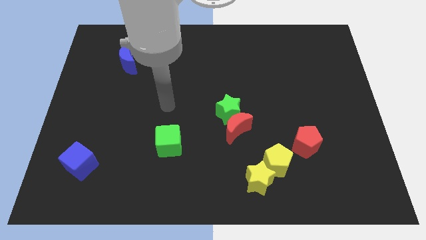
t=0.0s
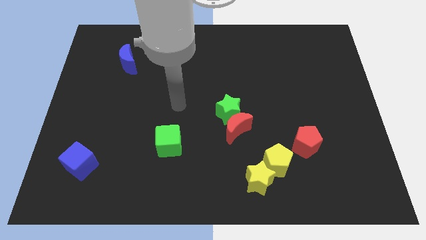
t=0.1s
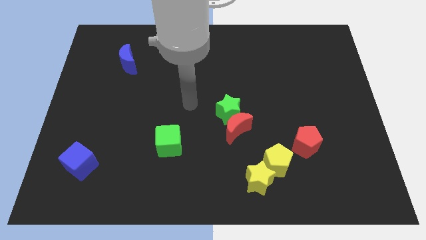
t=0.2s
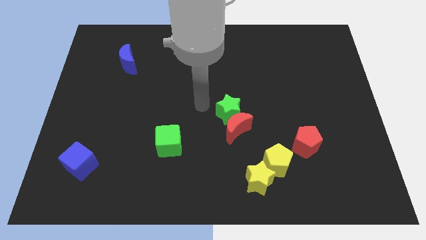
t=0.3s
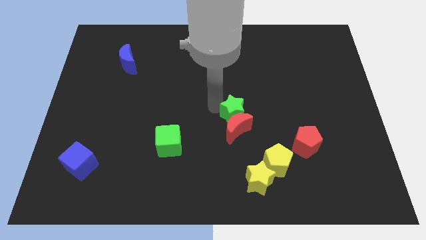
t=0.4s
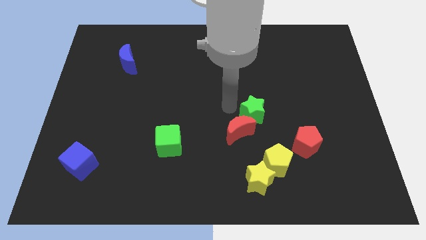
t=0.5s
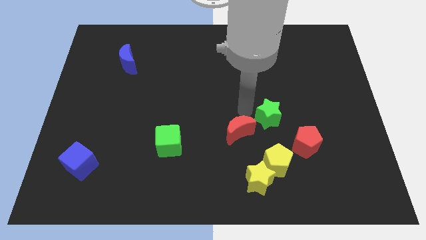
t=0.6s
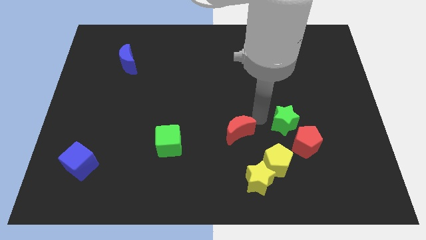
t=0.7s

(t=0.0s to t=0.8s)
separate the red moon from the green star

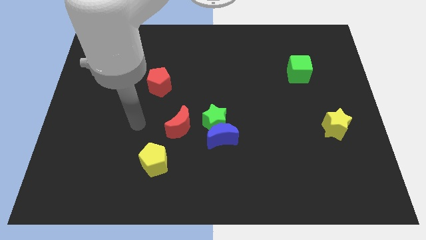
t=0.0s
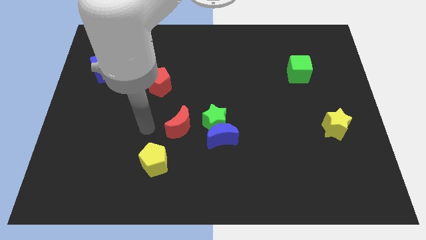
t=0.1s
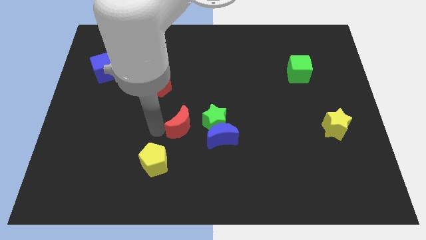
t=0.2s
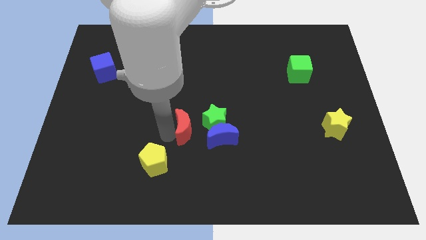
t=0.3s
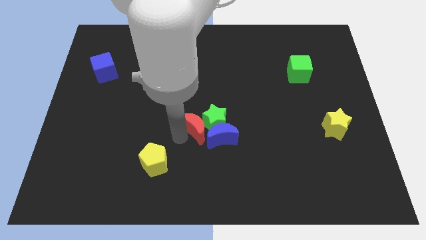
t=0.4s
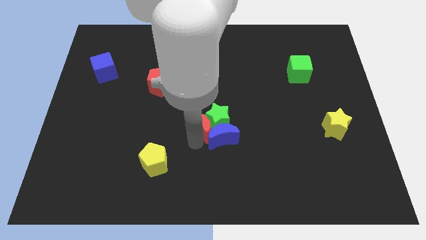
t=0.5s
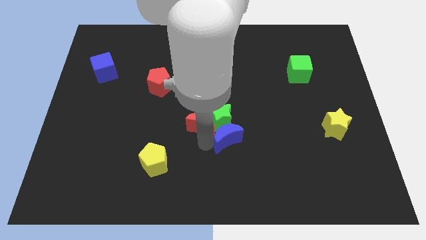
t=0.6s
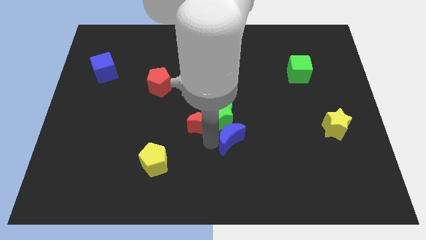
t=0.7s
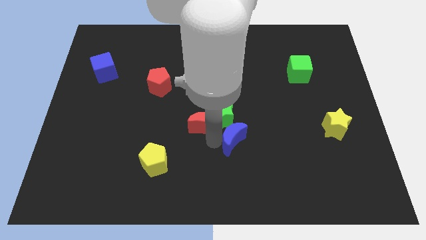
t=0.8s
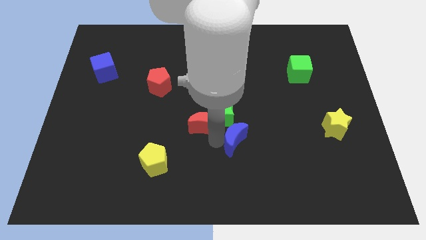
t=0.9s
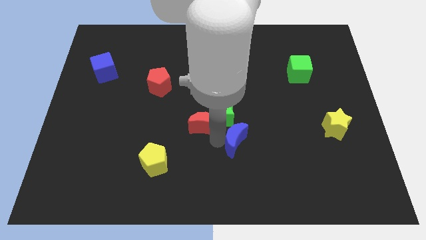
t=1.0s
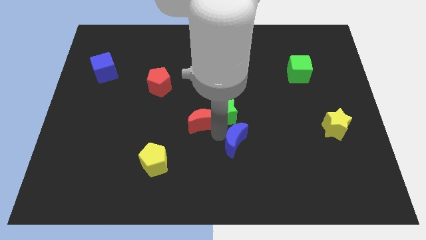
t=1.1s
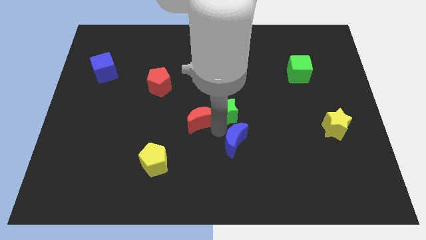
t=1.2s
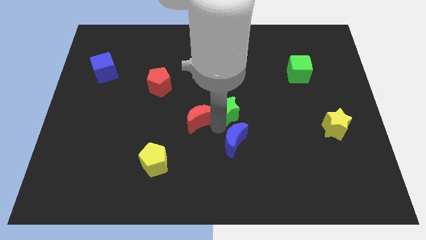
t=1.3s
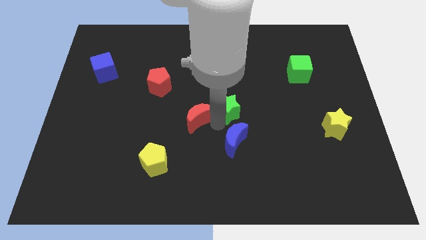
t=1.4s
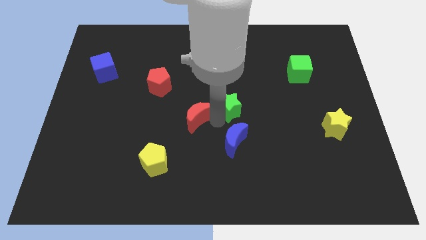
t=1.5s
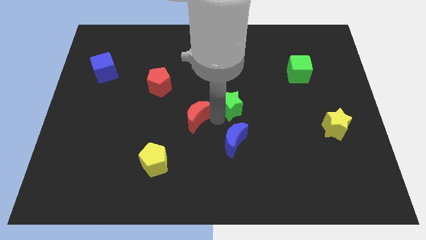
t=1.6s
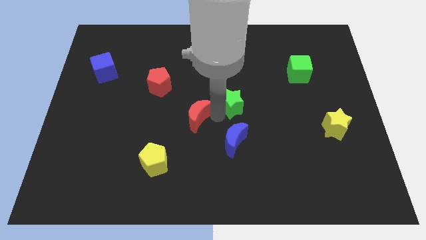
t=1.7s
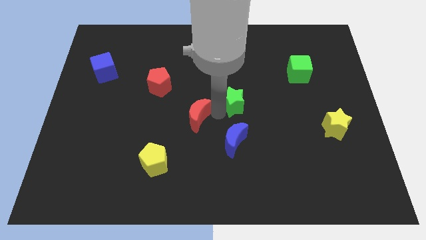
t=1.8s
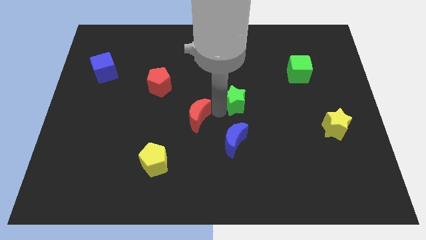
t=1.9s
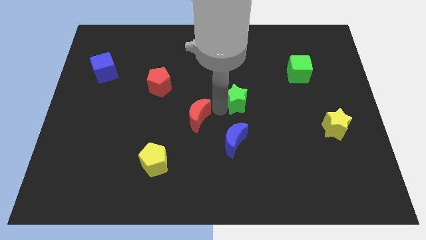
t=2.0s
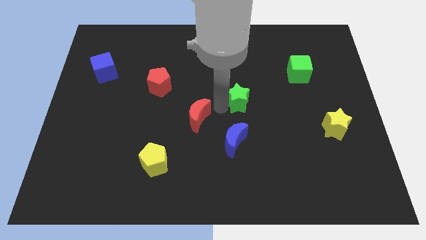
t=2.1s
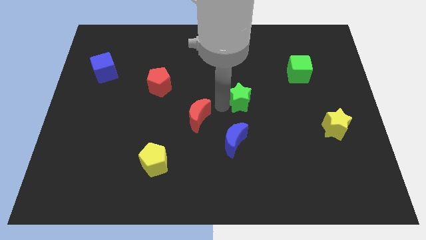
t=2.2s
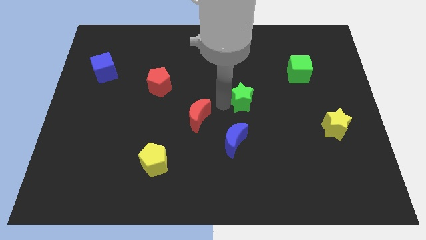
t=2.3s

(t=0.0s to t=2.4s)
pull the green star apart from the blue moon and red moon

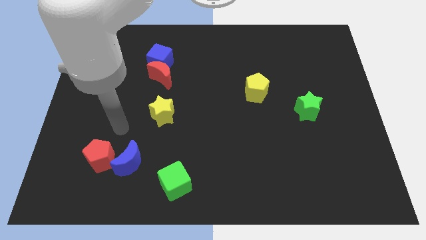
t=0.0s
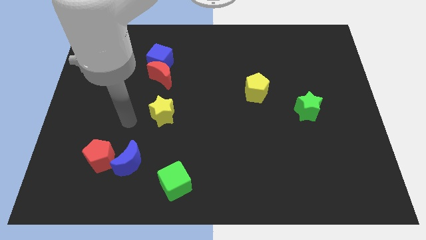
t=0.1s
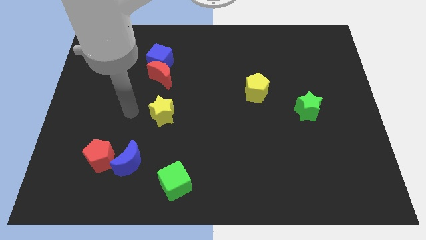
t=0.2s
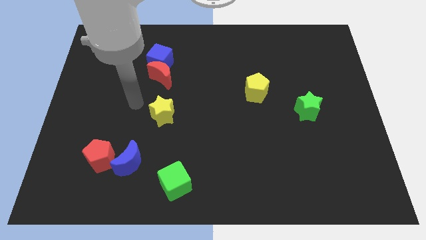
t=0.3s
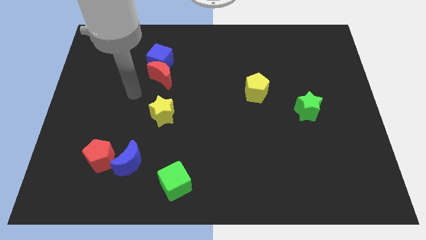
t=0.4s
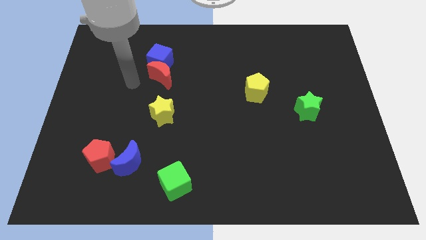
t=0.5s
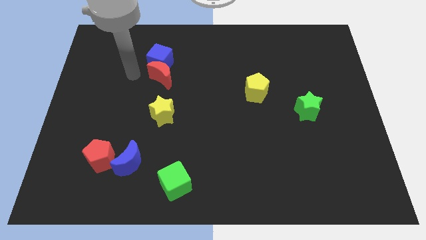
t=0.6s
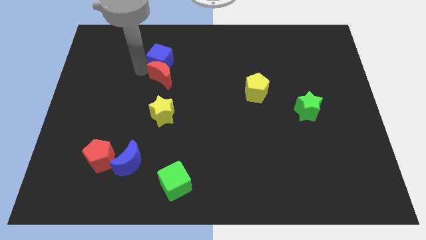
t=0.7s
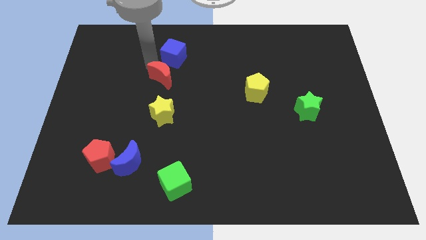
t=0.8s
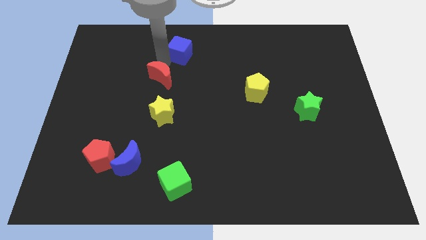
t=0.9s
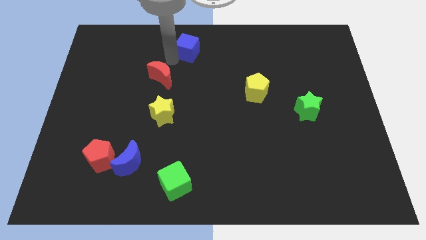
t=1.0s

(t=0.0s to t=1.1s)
move the red moon away from the blue cube

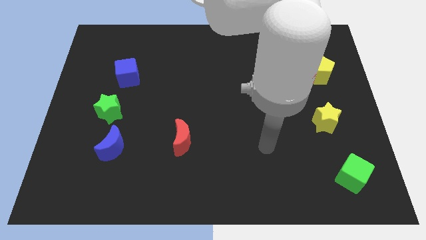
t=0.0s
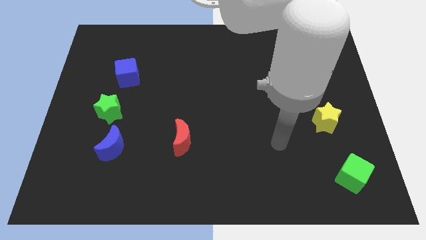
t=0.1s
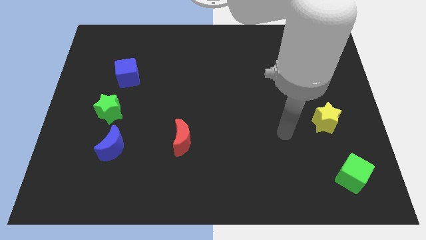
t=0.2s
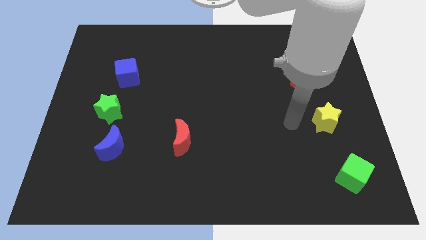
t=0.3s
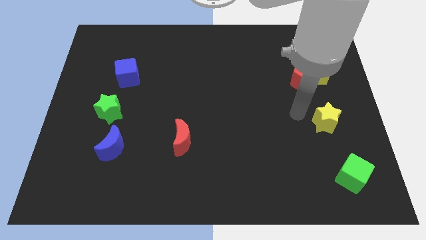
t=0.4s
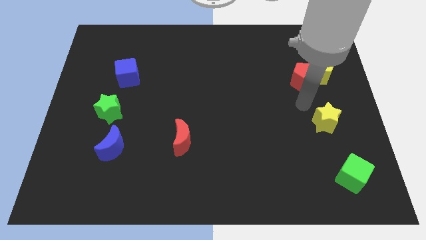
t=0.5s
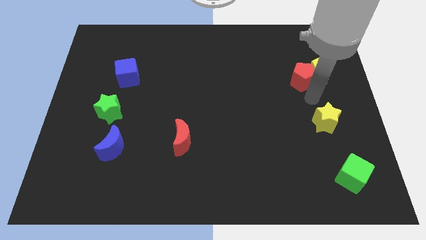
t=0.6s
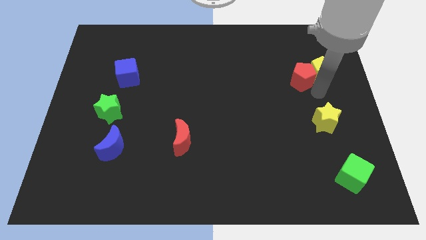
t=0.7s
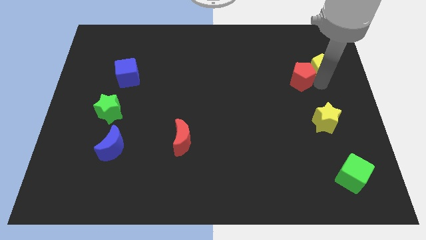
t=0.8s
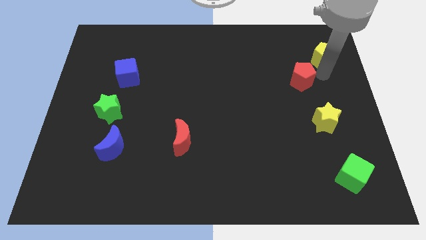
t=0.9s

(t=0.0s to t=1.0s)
pull the red pentagon apart from the yellow pentagon

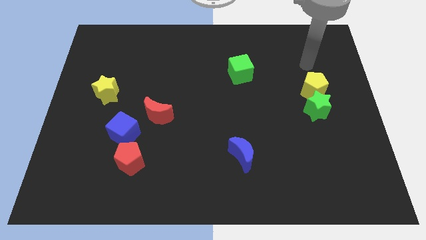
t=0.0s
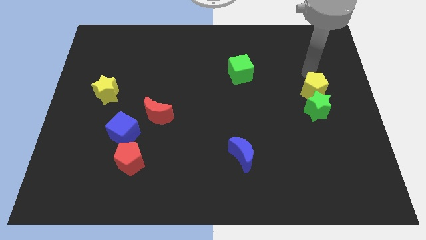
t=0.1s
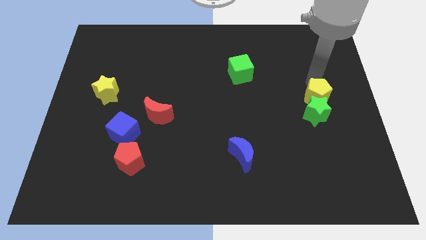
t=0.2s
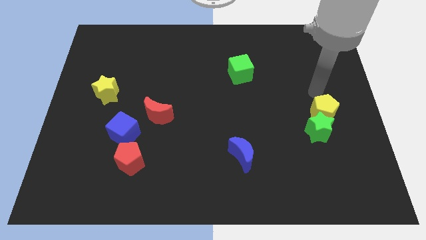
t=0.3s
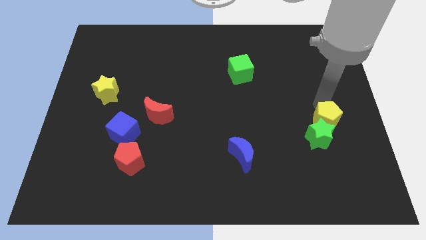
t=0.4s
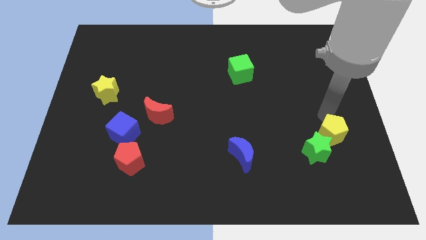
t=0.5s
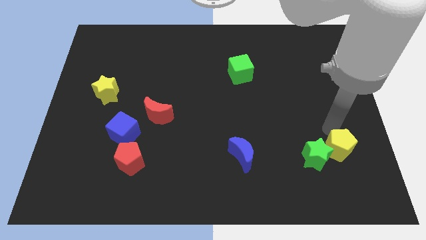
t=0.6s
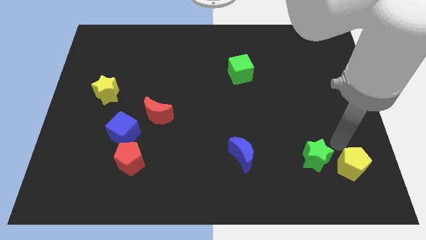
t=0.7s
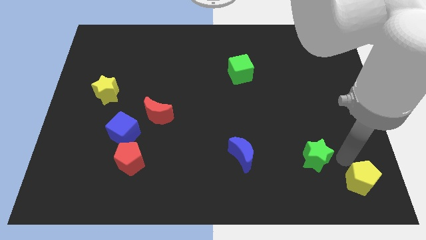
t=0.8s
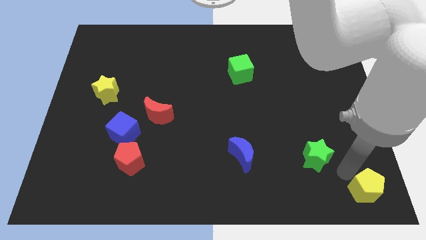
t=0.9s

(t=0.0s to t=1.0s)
move the green star away from the yellow pentagon

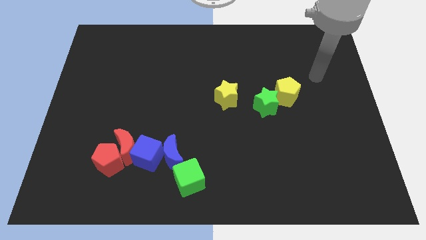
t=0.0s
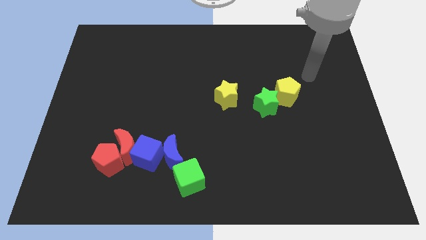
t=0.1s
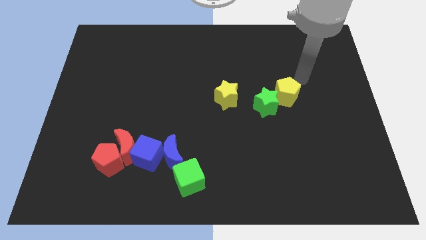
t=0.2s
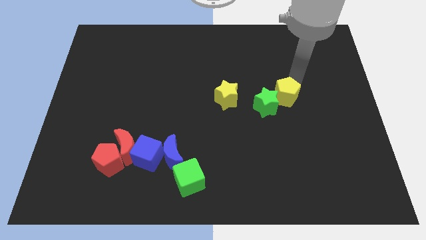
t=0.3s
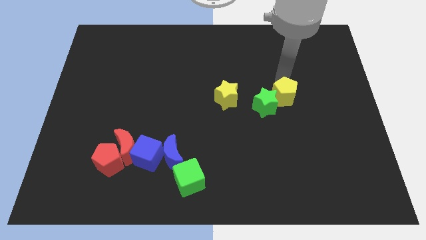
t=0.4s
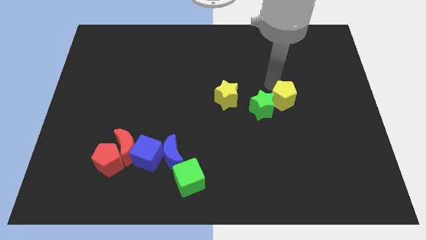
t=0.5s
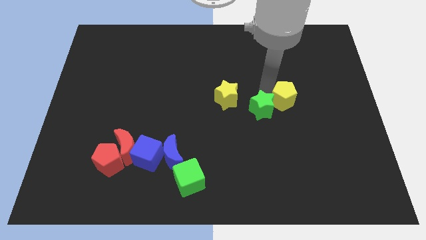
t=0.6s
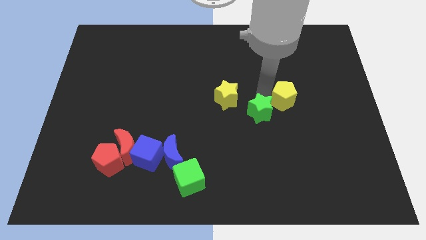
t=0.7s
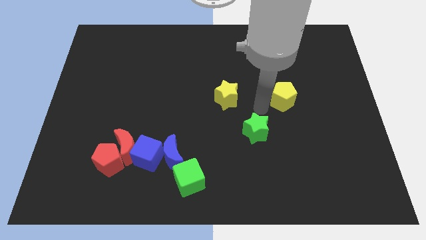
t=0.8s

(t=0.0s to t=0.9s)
separate the yellow pentagon from the green star

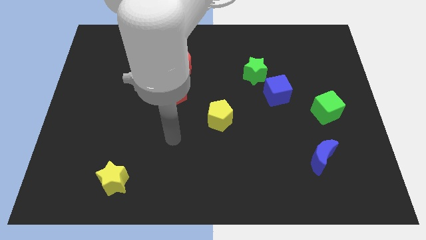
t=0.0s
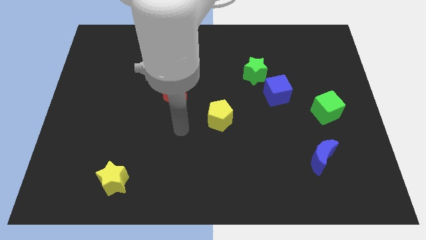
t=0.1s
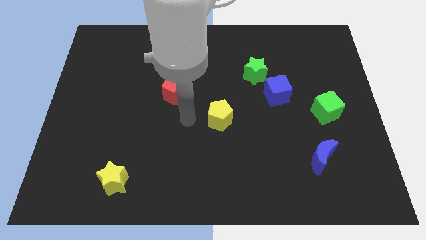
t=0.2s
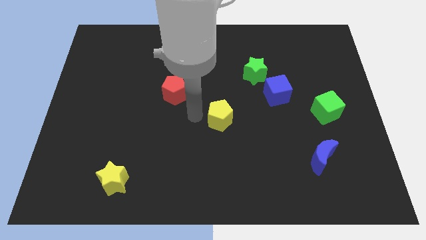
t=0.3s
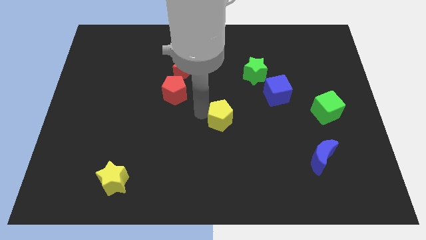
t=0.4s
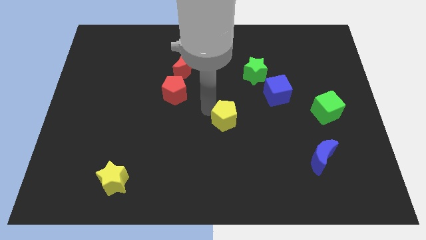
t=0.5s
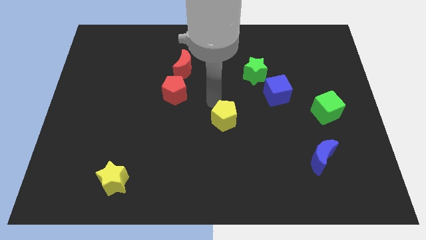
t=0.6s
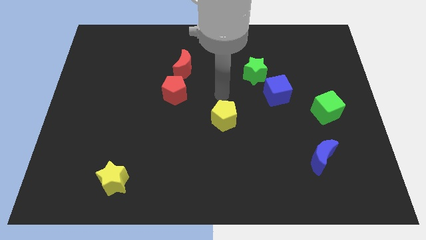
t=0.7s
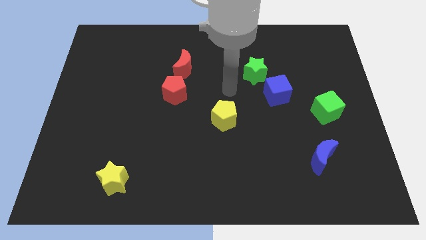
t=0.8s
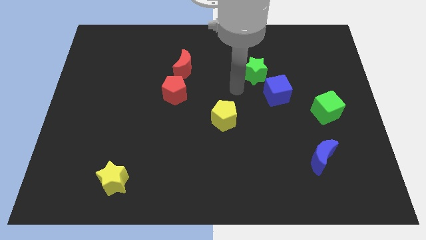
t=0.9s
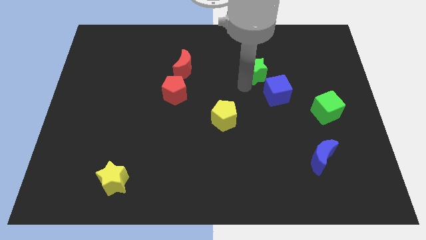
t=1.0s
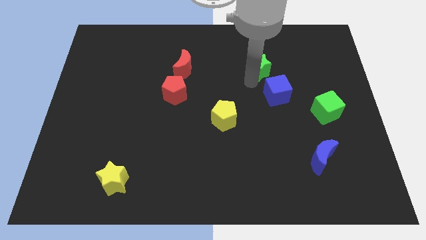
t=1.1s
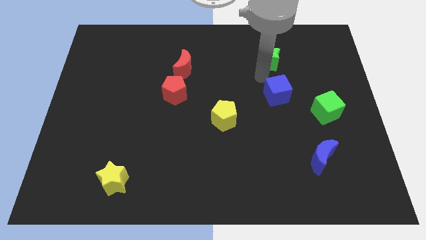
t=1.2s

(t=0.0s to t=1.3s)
pull the blue cube apart from the green star

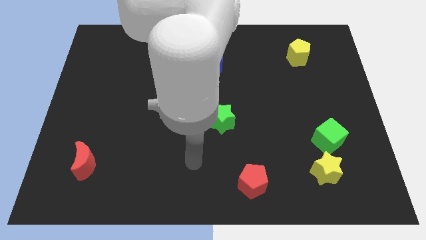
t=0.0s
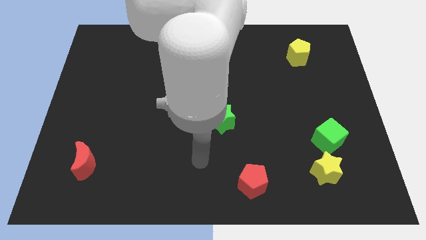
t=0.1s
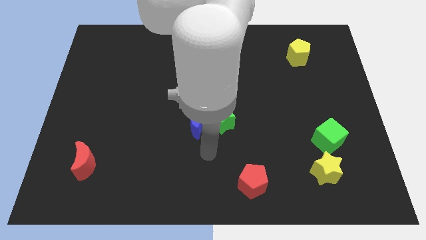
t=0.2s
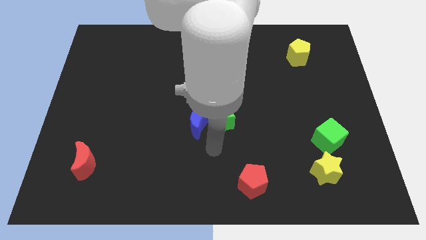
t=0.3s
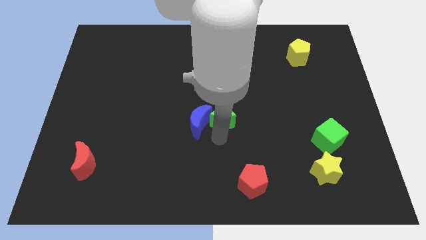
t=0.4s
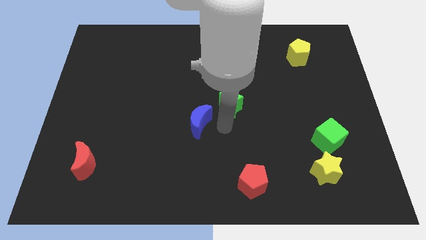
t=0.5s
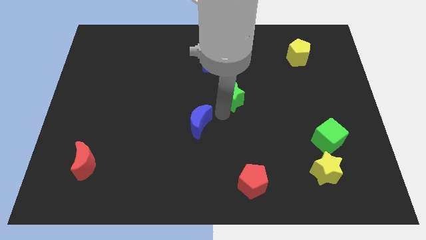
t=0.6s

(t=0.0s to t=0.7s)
move the blue moon away from the green star
